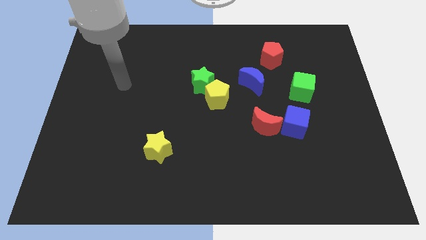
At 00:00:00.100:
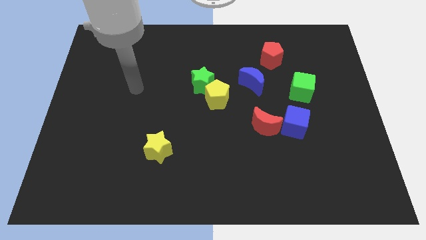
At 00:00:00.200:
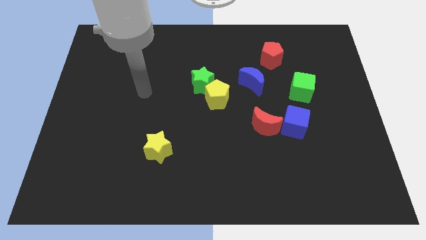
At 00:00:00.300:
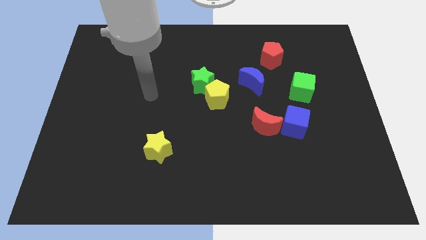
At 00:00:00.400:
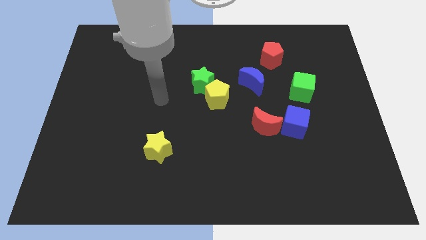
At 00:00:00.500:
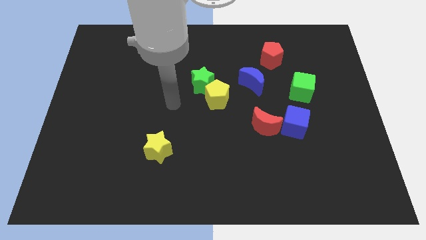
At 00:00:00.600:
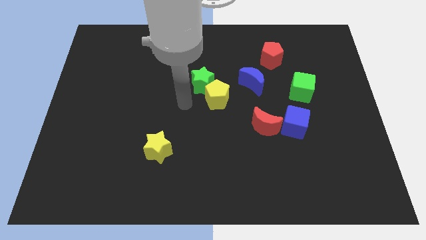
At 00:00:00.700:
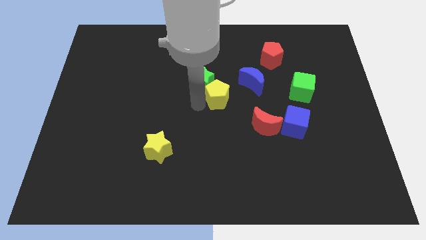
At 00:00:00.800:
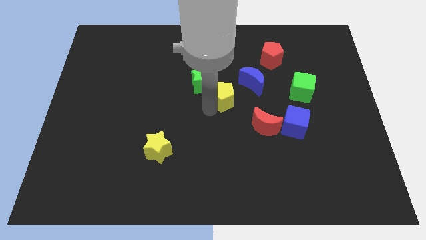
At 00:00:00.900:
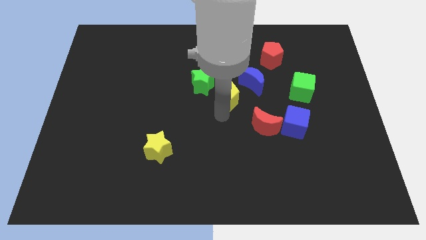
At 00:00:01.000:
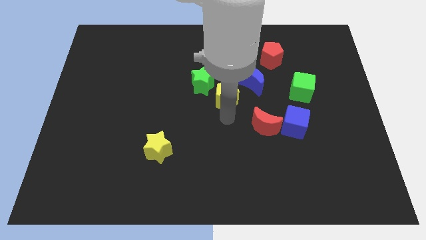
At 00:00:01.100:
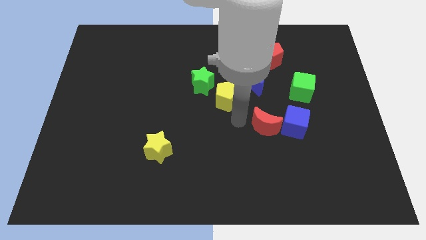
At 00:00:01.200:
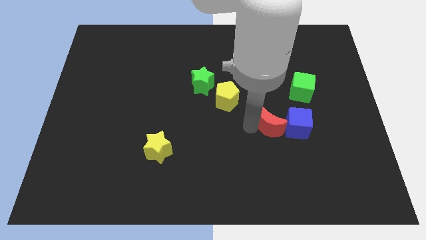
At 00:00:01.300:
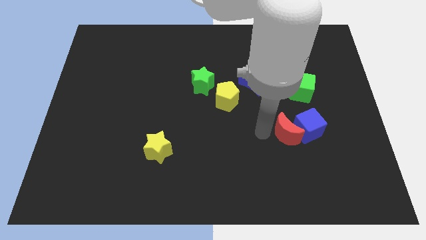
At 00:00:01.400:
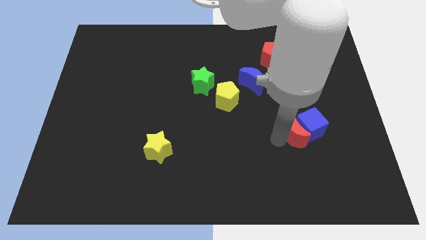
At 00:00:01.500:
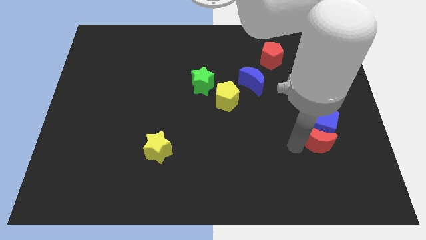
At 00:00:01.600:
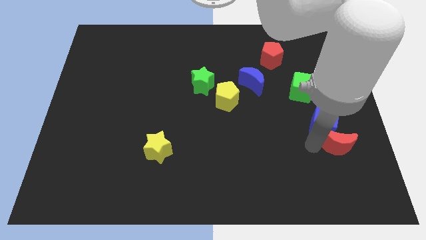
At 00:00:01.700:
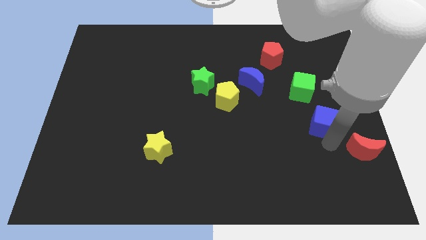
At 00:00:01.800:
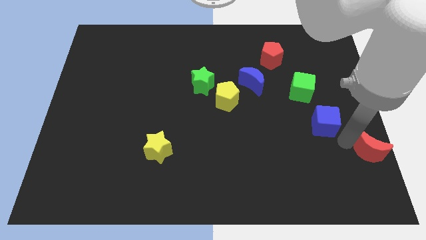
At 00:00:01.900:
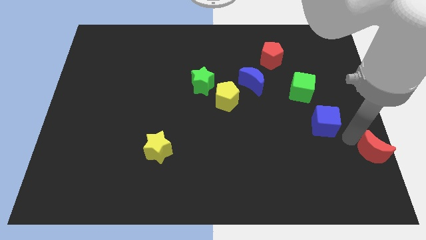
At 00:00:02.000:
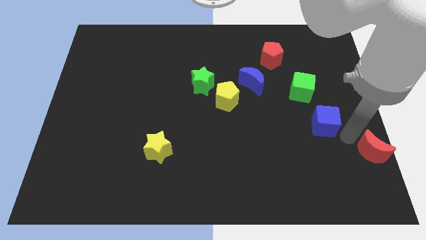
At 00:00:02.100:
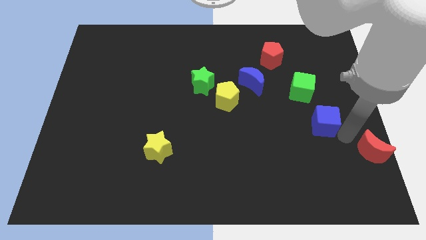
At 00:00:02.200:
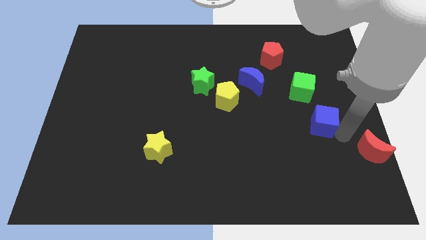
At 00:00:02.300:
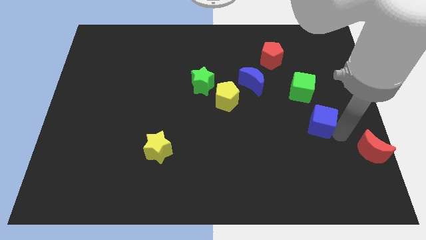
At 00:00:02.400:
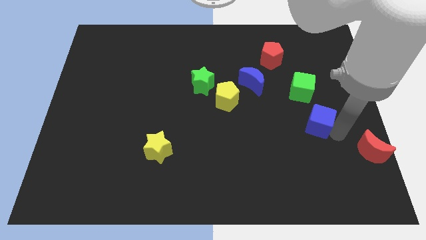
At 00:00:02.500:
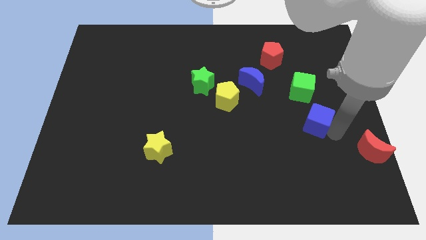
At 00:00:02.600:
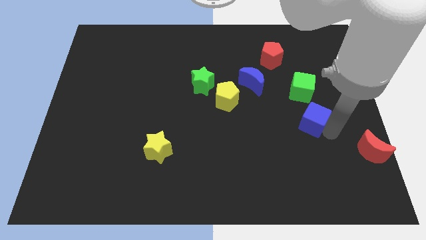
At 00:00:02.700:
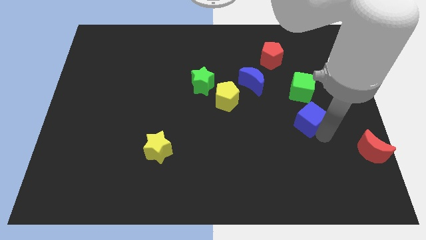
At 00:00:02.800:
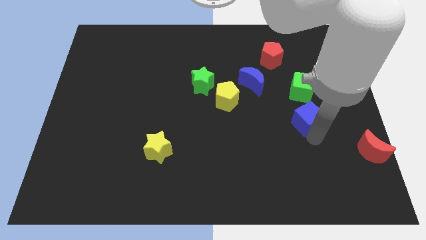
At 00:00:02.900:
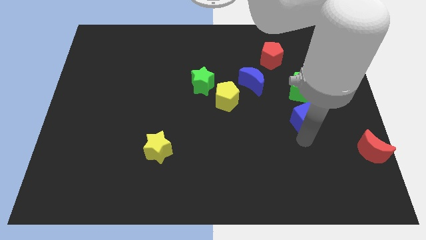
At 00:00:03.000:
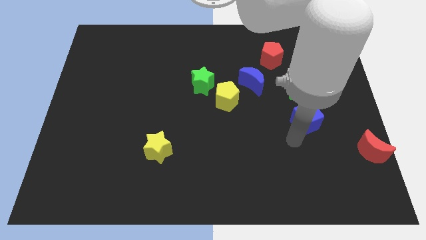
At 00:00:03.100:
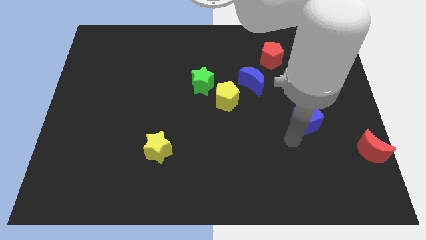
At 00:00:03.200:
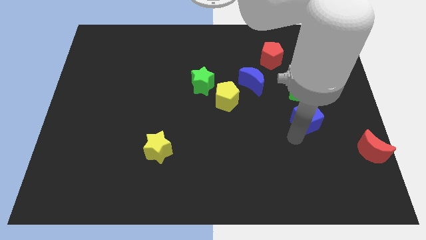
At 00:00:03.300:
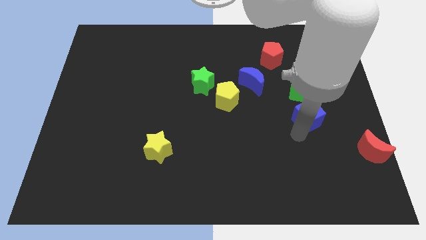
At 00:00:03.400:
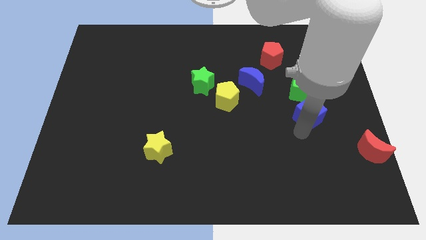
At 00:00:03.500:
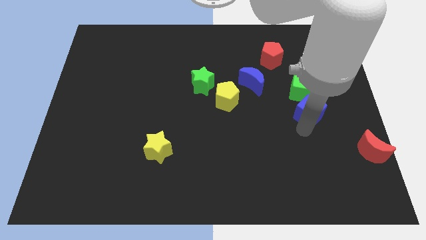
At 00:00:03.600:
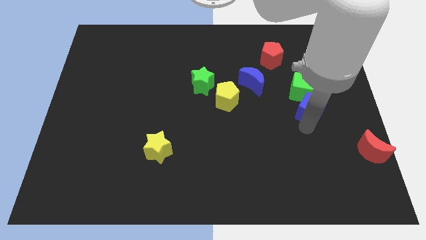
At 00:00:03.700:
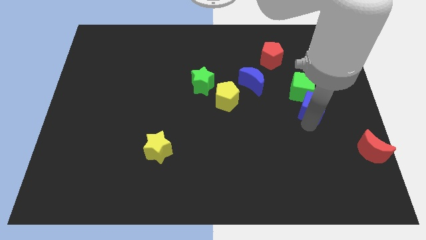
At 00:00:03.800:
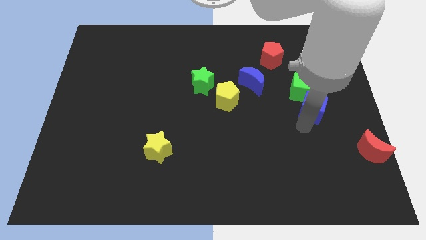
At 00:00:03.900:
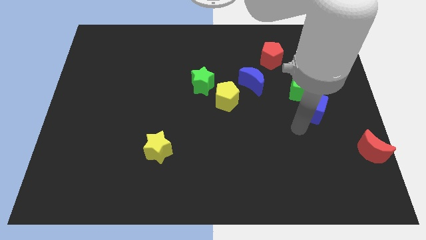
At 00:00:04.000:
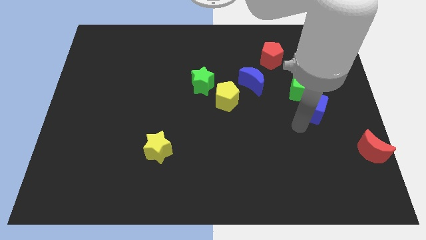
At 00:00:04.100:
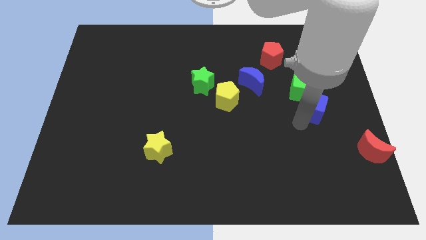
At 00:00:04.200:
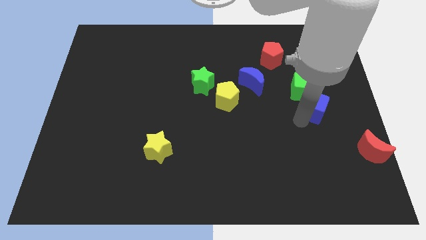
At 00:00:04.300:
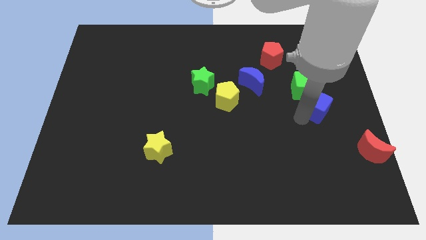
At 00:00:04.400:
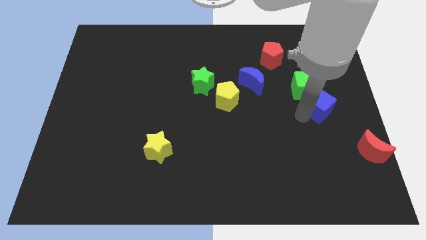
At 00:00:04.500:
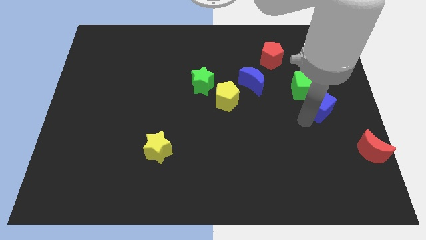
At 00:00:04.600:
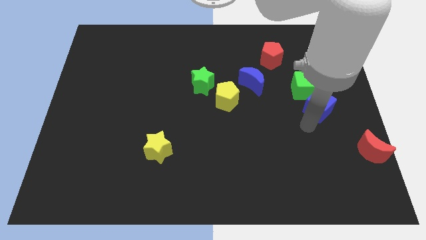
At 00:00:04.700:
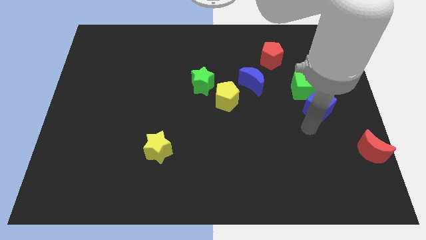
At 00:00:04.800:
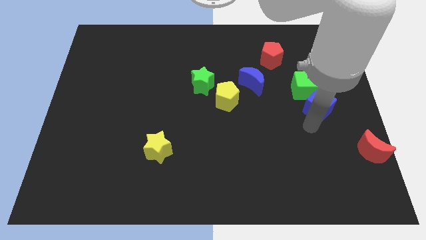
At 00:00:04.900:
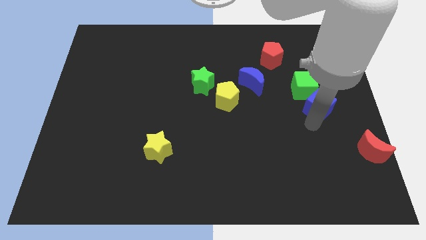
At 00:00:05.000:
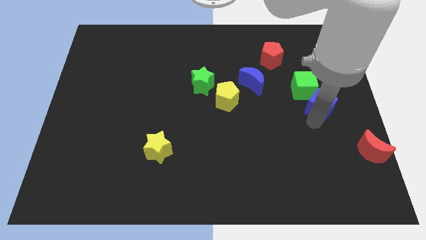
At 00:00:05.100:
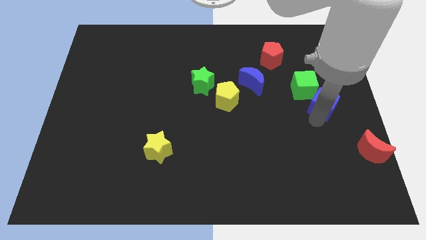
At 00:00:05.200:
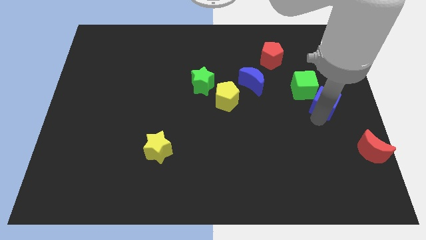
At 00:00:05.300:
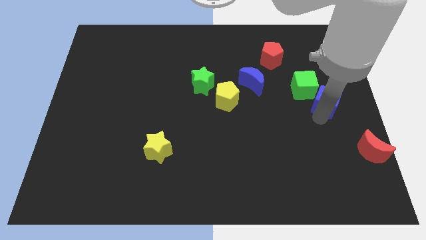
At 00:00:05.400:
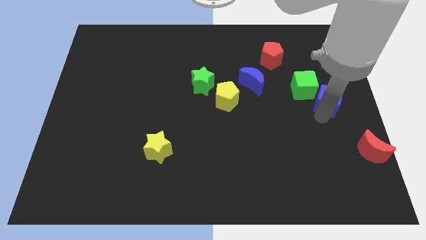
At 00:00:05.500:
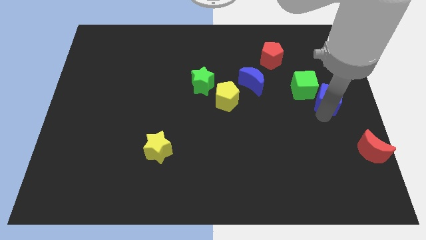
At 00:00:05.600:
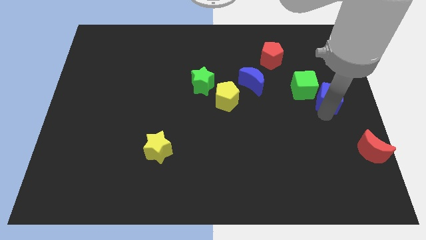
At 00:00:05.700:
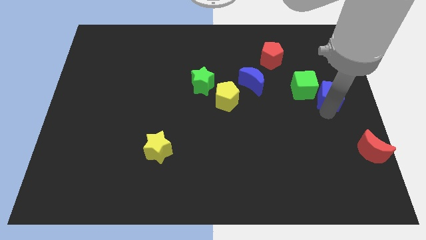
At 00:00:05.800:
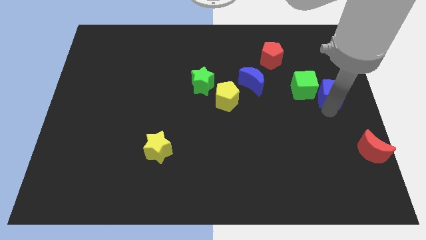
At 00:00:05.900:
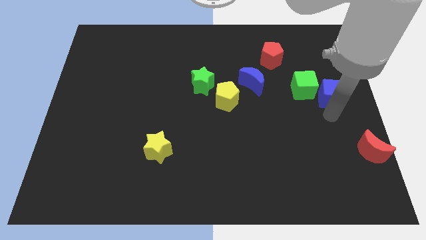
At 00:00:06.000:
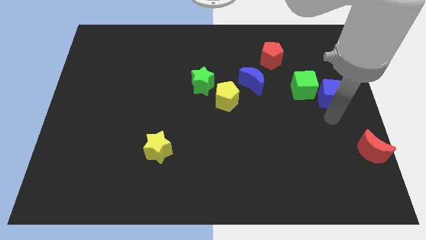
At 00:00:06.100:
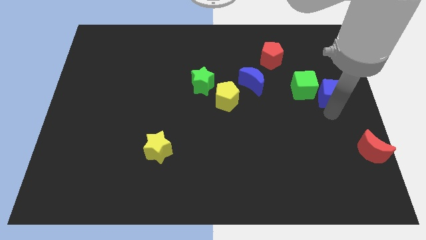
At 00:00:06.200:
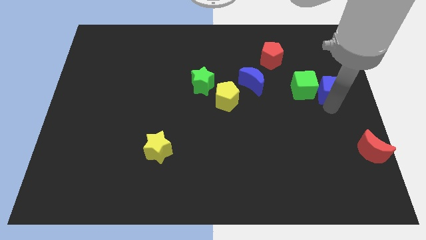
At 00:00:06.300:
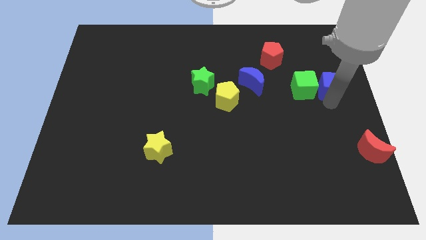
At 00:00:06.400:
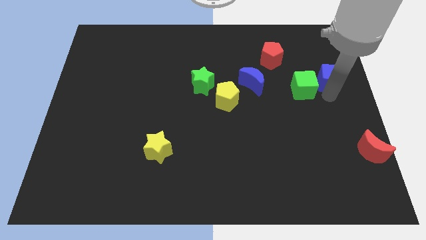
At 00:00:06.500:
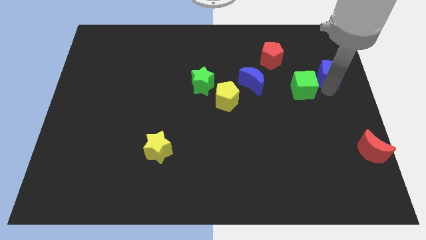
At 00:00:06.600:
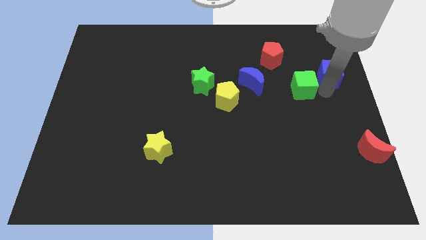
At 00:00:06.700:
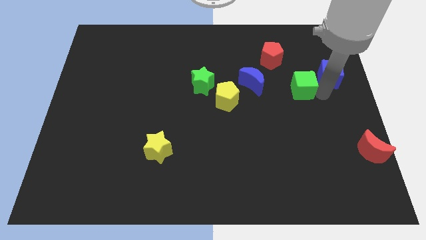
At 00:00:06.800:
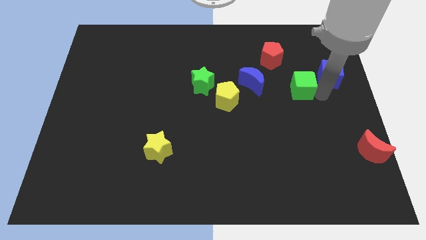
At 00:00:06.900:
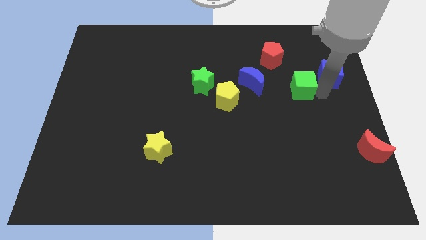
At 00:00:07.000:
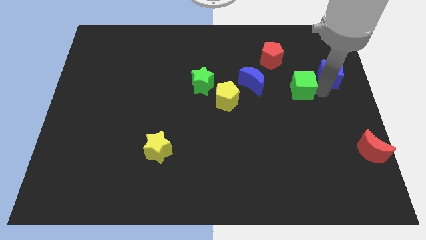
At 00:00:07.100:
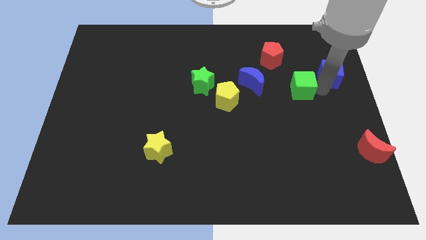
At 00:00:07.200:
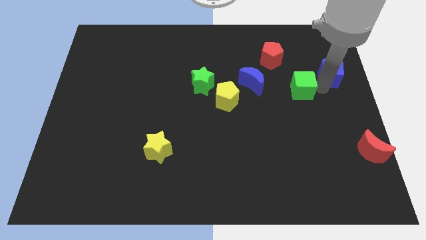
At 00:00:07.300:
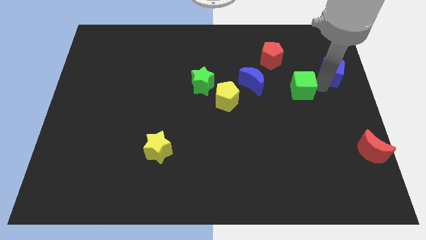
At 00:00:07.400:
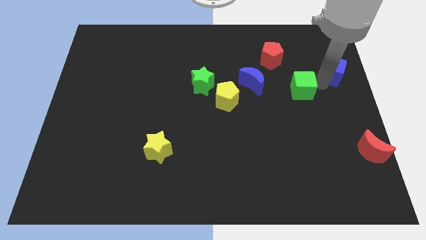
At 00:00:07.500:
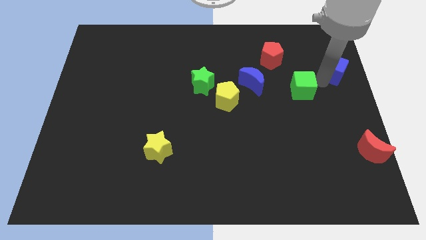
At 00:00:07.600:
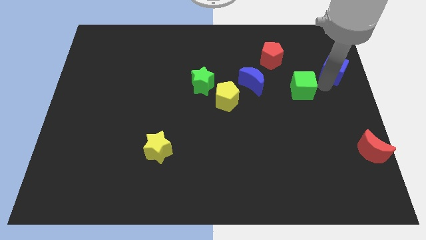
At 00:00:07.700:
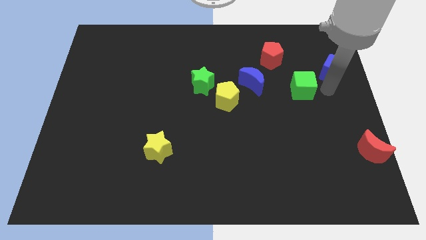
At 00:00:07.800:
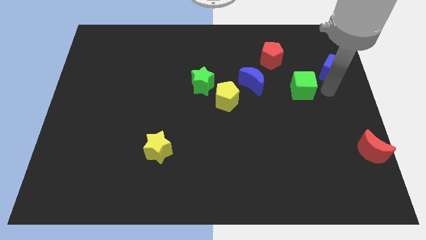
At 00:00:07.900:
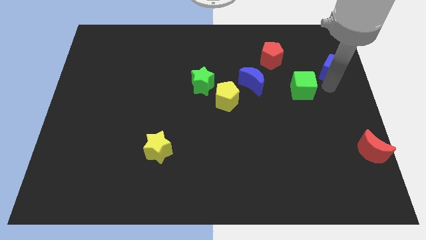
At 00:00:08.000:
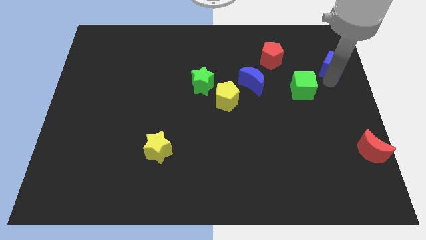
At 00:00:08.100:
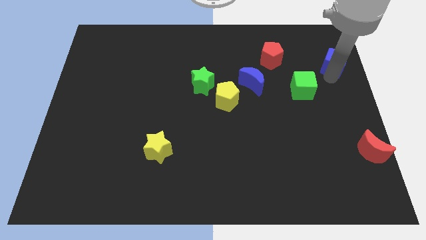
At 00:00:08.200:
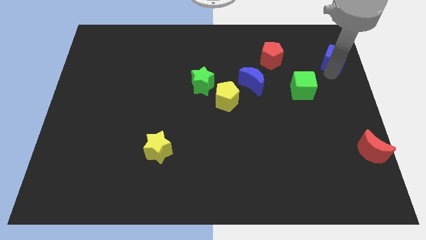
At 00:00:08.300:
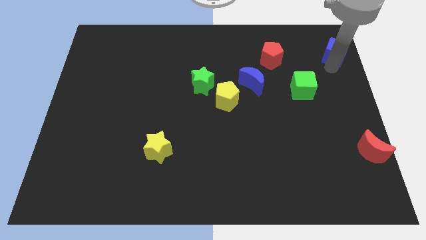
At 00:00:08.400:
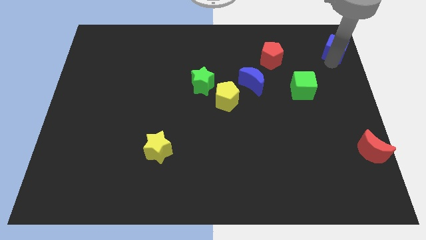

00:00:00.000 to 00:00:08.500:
move the blue cube to the top right
